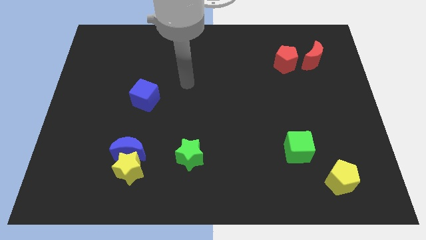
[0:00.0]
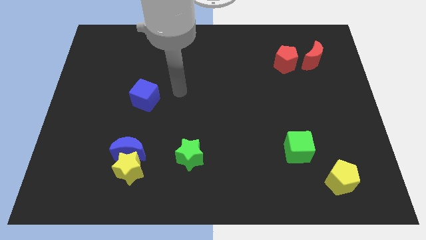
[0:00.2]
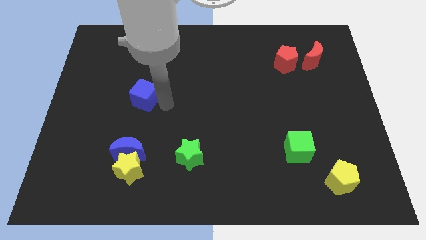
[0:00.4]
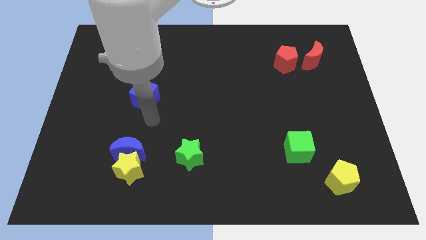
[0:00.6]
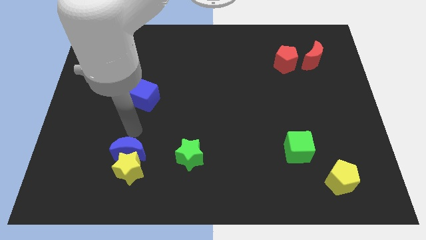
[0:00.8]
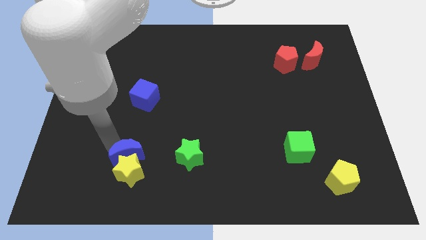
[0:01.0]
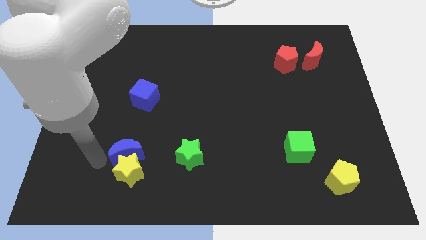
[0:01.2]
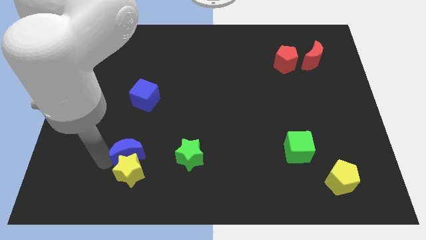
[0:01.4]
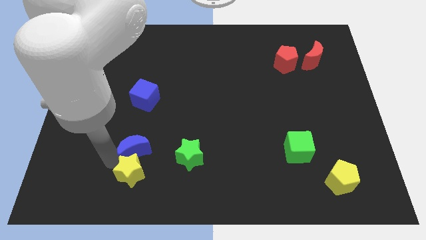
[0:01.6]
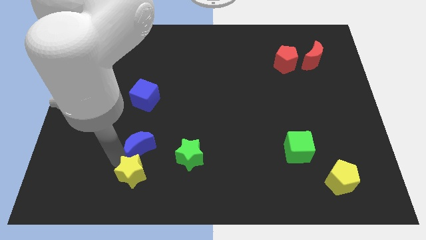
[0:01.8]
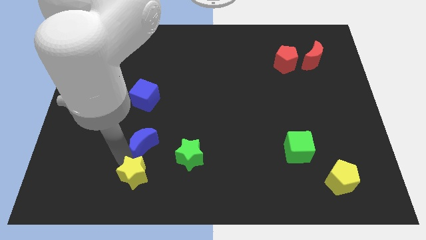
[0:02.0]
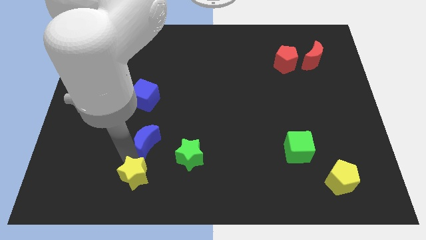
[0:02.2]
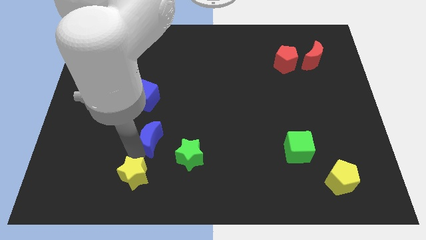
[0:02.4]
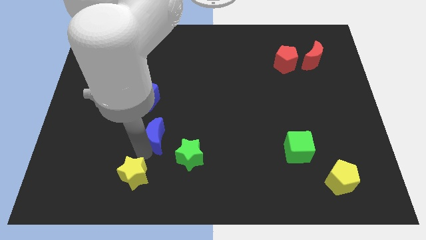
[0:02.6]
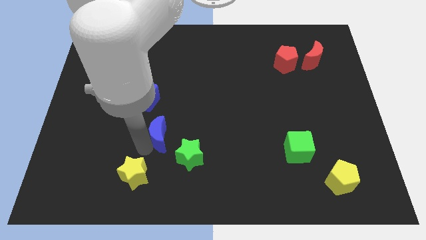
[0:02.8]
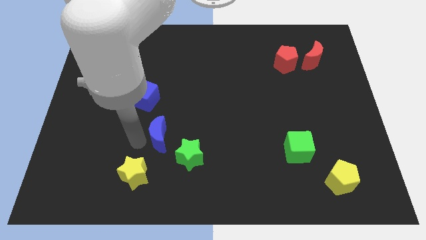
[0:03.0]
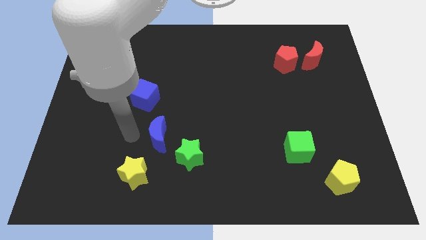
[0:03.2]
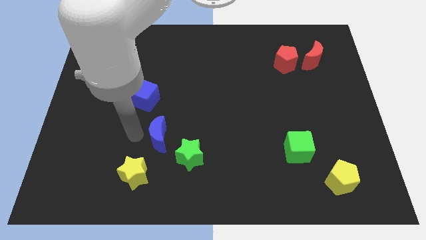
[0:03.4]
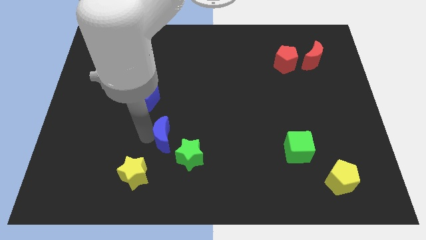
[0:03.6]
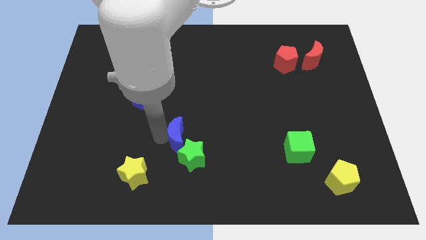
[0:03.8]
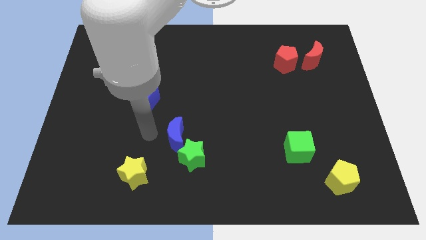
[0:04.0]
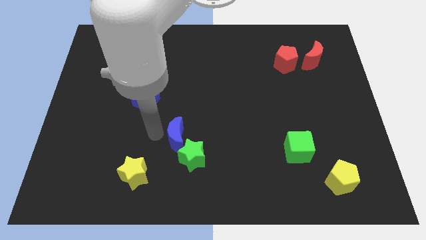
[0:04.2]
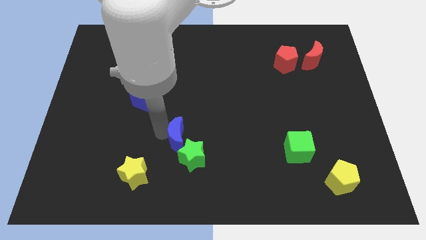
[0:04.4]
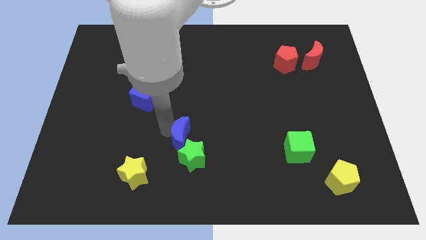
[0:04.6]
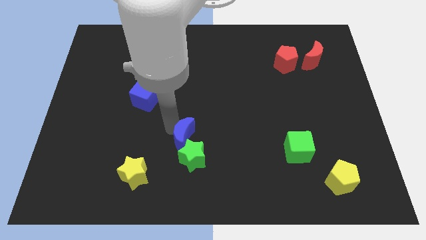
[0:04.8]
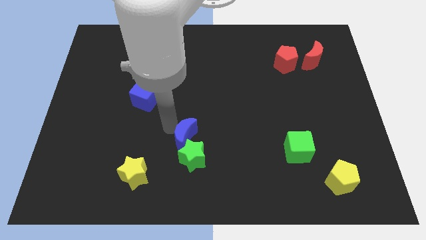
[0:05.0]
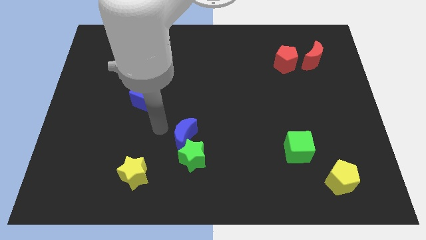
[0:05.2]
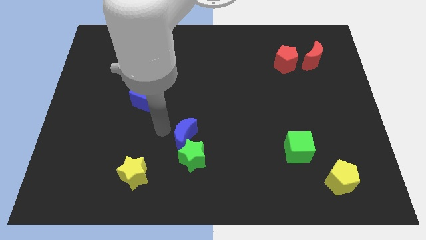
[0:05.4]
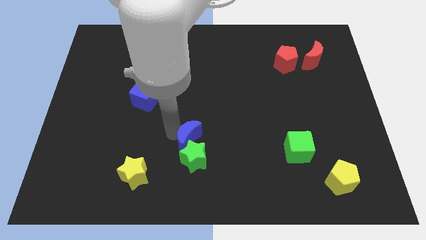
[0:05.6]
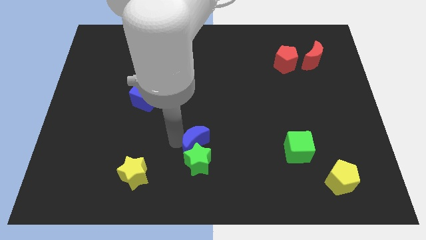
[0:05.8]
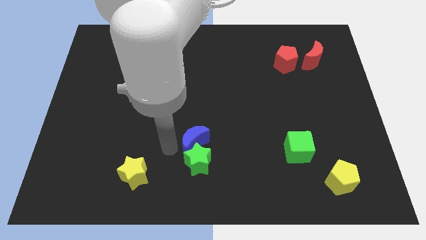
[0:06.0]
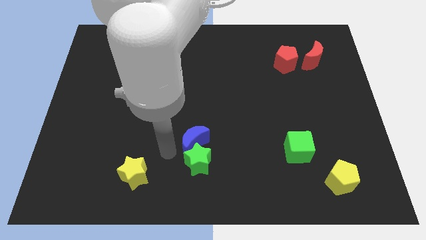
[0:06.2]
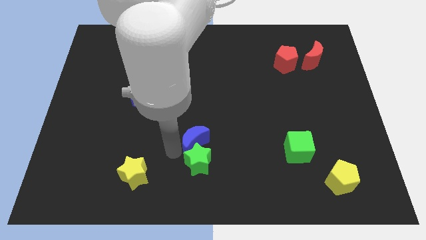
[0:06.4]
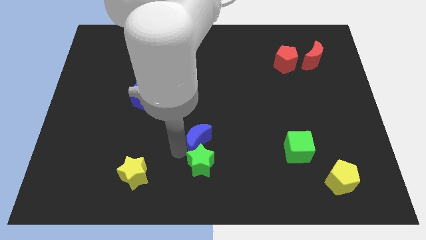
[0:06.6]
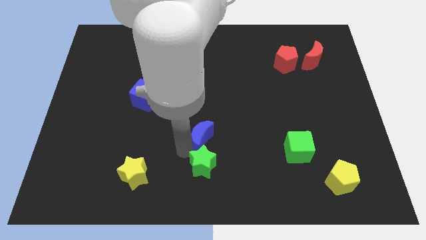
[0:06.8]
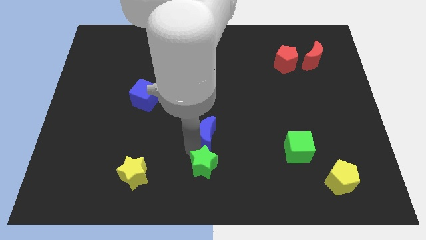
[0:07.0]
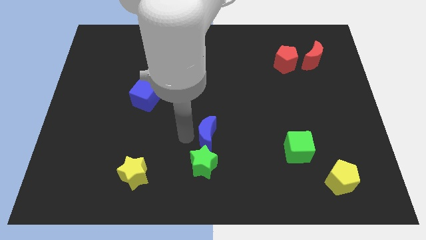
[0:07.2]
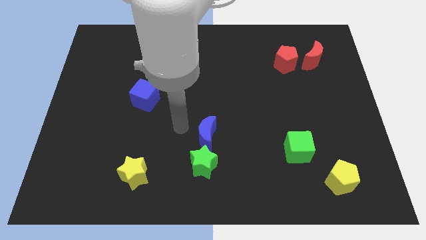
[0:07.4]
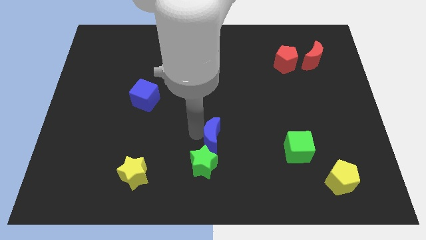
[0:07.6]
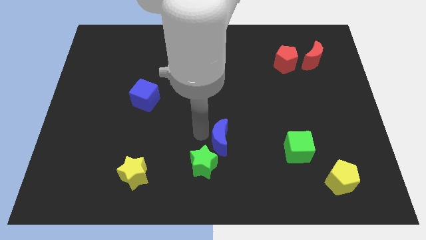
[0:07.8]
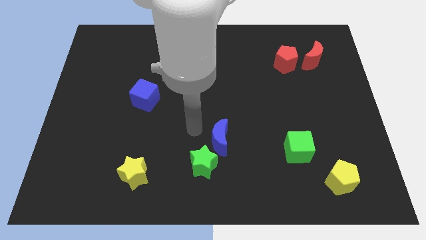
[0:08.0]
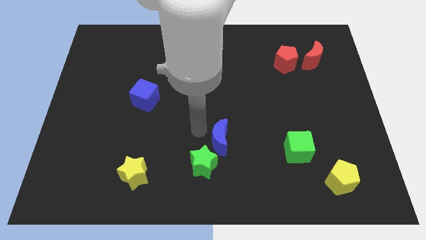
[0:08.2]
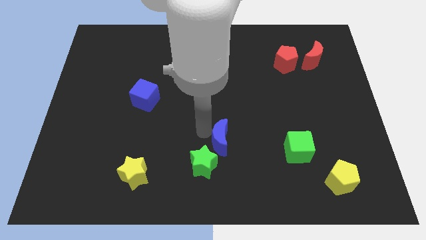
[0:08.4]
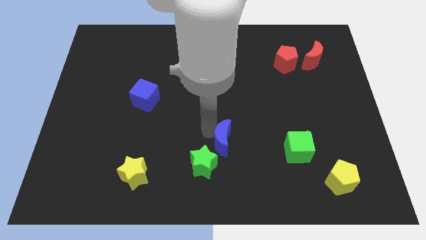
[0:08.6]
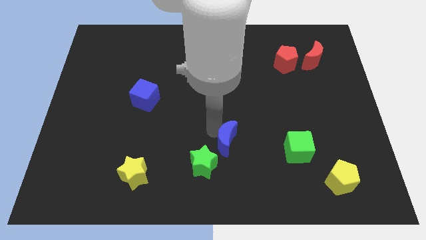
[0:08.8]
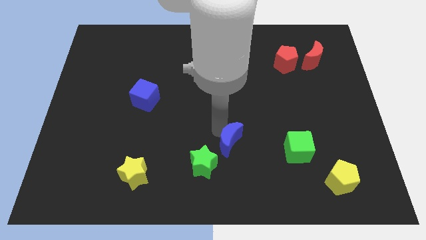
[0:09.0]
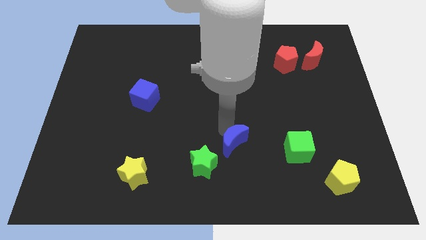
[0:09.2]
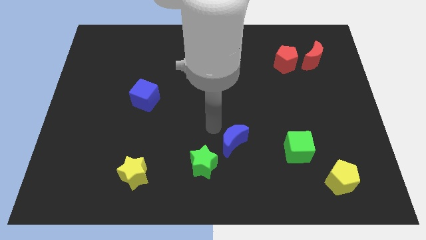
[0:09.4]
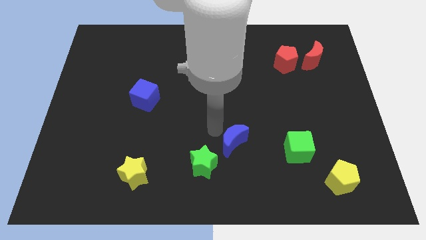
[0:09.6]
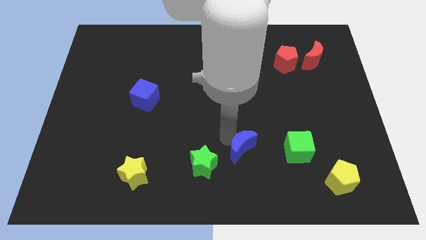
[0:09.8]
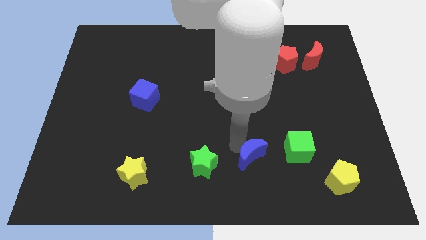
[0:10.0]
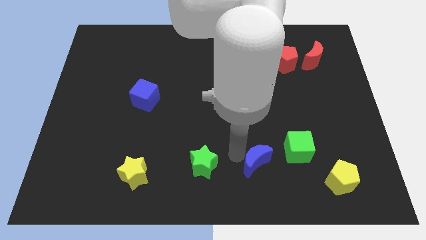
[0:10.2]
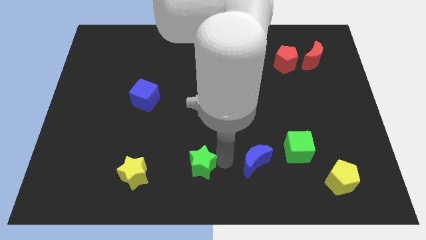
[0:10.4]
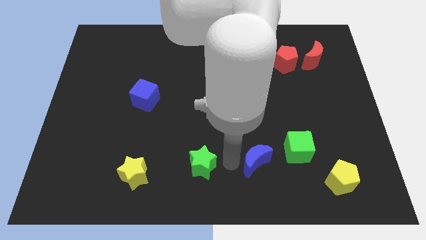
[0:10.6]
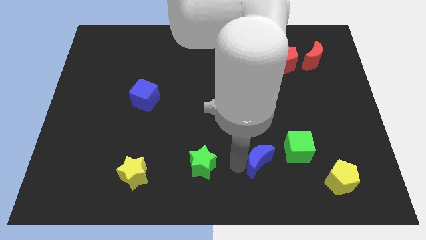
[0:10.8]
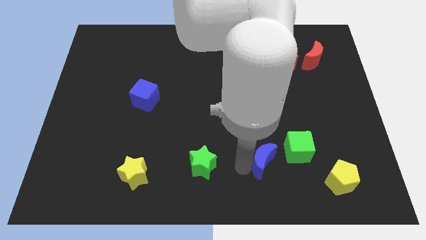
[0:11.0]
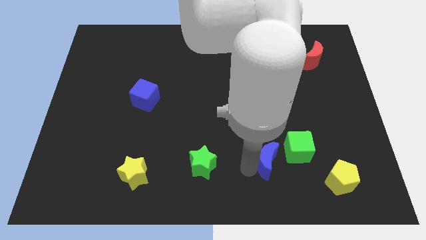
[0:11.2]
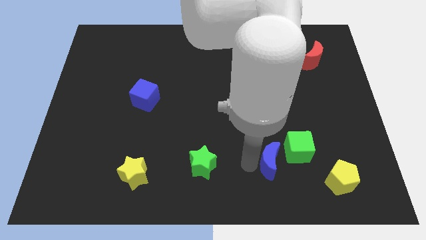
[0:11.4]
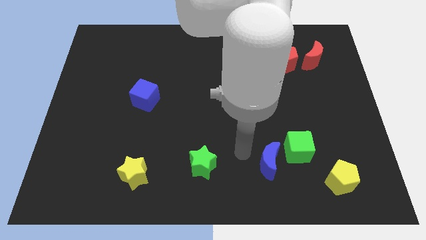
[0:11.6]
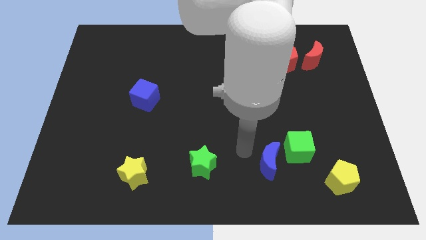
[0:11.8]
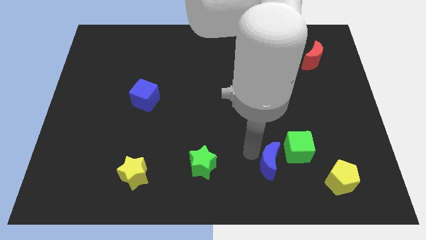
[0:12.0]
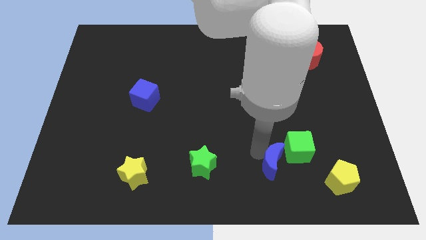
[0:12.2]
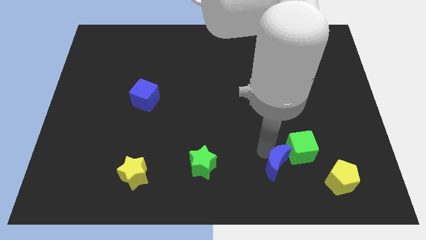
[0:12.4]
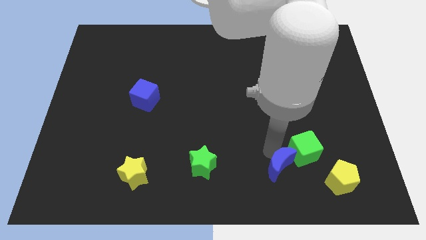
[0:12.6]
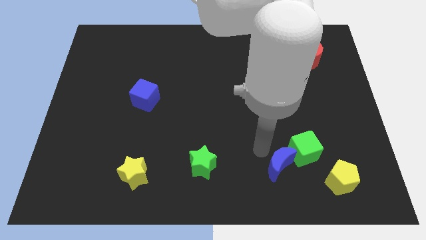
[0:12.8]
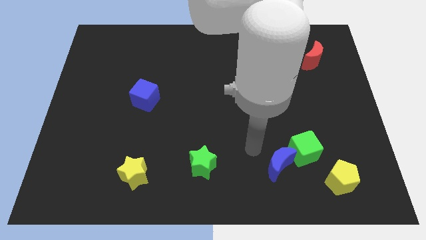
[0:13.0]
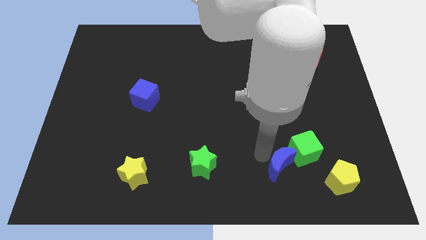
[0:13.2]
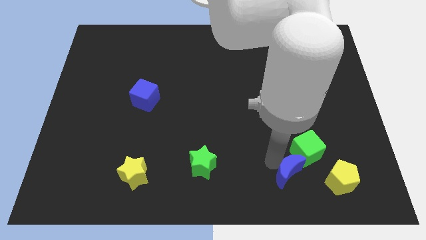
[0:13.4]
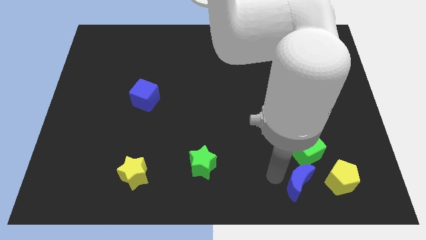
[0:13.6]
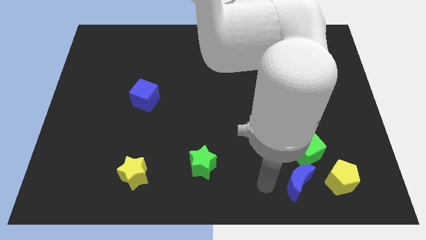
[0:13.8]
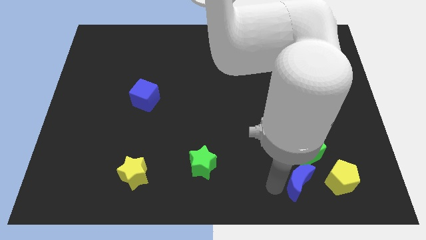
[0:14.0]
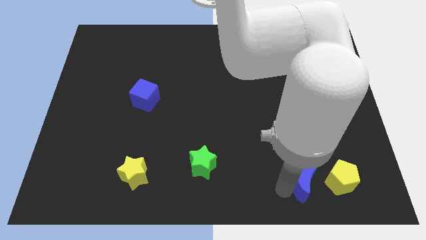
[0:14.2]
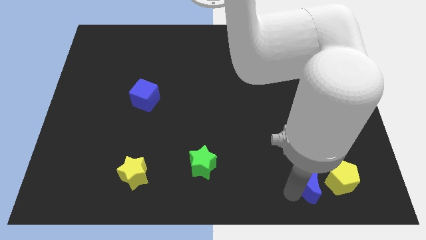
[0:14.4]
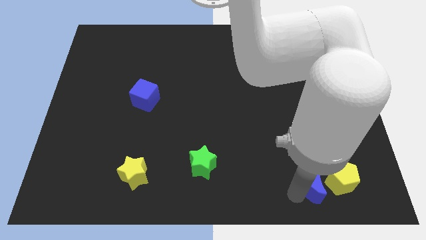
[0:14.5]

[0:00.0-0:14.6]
put the blue moon towards the yellow pentagon
